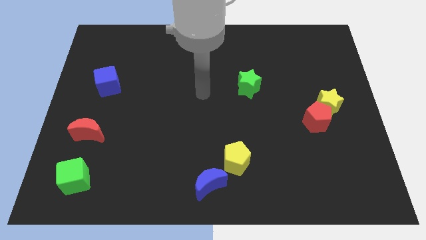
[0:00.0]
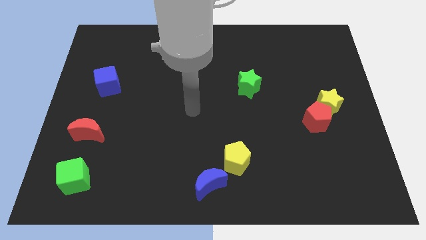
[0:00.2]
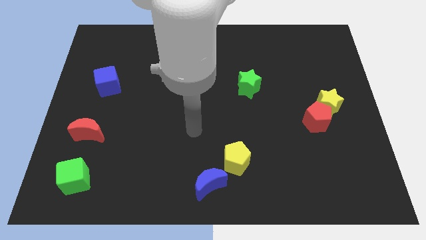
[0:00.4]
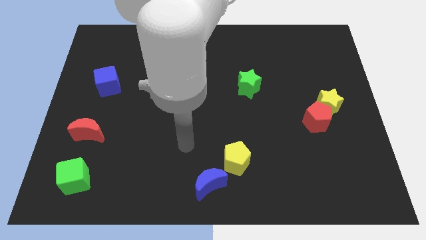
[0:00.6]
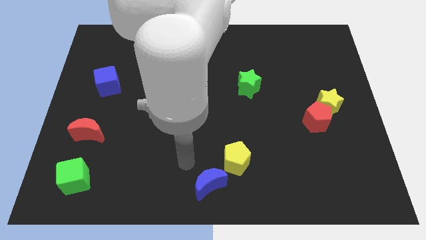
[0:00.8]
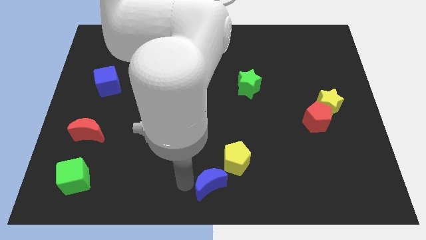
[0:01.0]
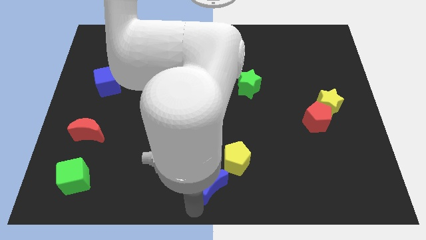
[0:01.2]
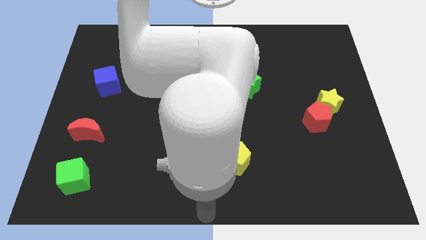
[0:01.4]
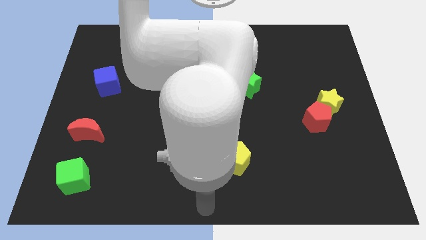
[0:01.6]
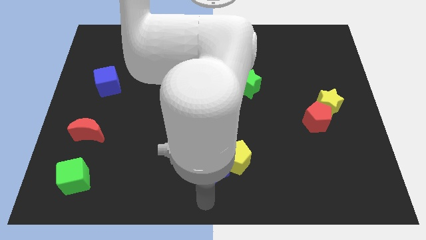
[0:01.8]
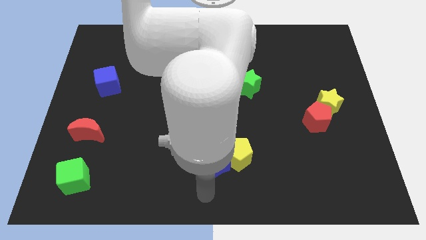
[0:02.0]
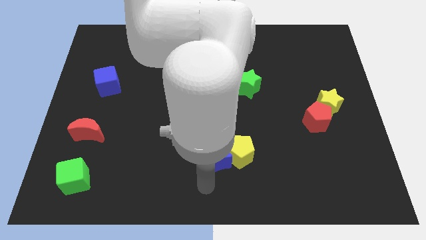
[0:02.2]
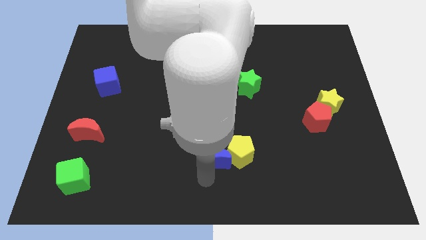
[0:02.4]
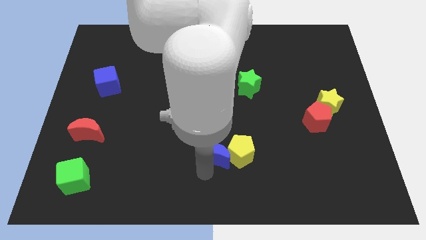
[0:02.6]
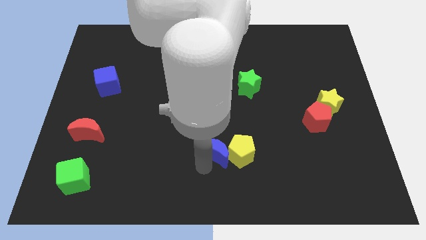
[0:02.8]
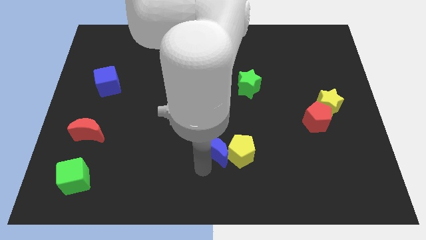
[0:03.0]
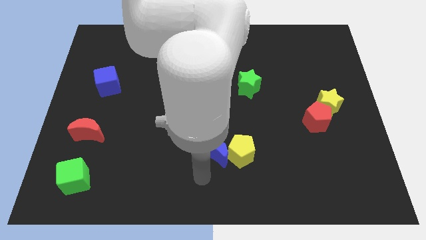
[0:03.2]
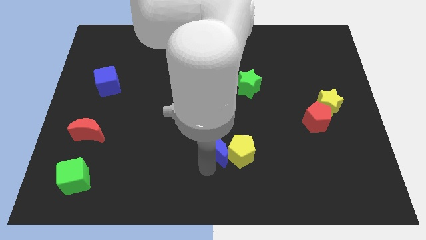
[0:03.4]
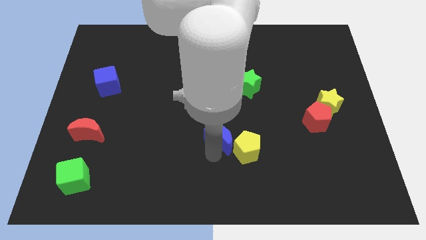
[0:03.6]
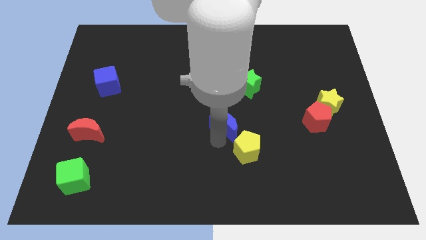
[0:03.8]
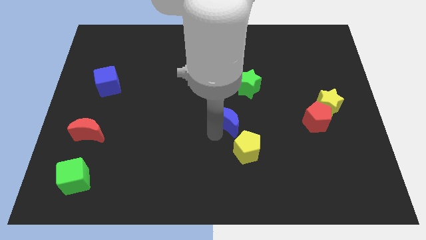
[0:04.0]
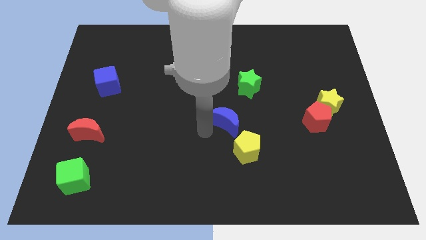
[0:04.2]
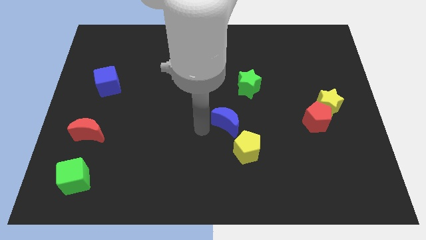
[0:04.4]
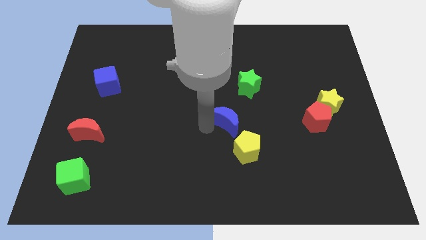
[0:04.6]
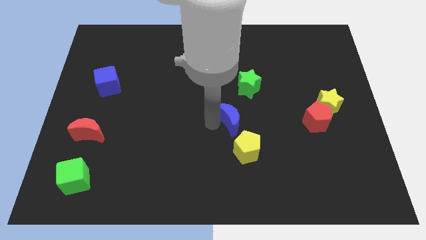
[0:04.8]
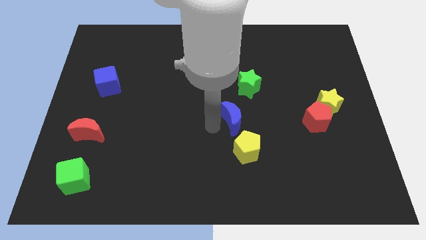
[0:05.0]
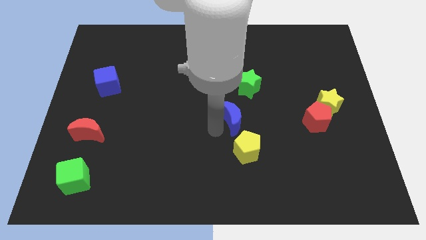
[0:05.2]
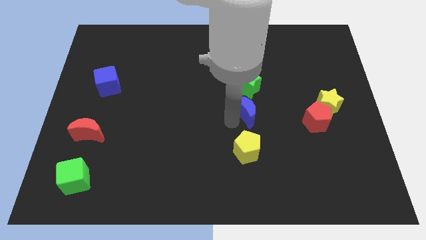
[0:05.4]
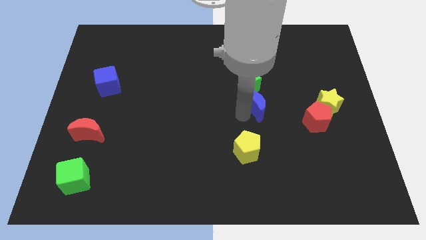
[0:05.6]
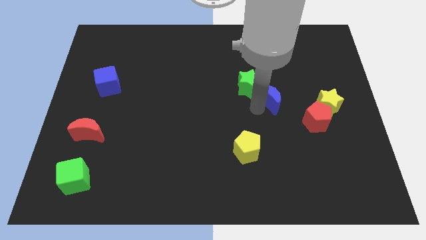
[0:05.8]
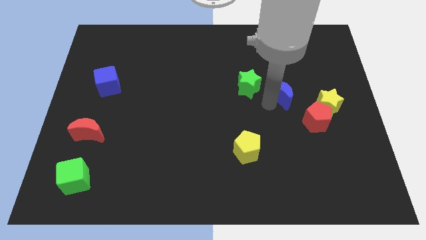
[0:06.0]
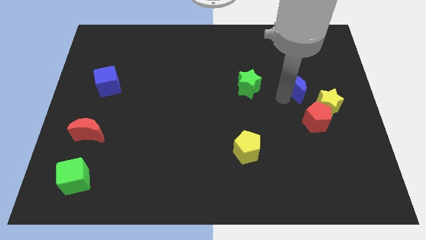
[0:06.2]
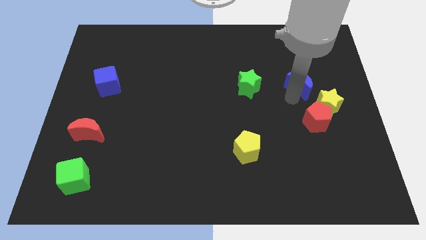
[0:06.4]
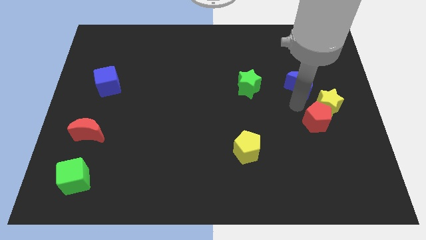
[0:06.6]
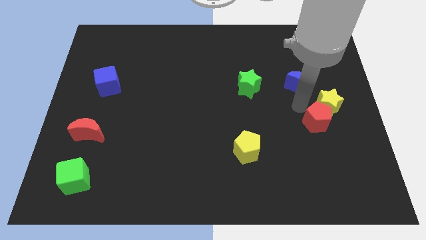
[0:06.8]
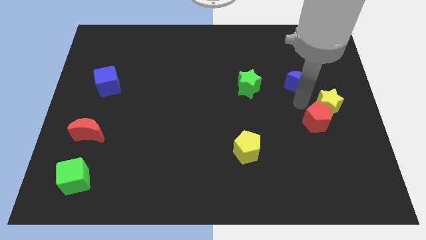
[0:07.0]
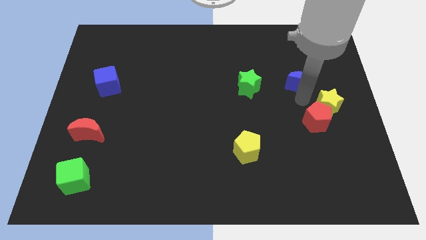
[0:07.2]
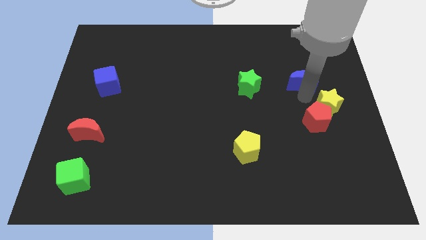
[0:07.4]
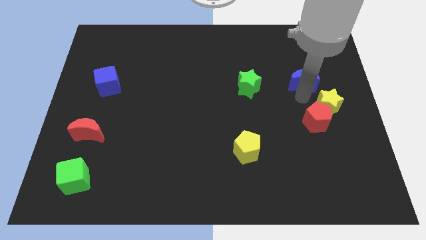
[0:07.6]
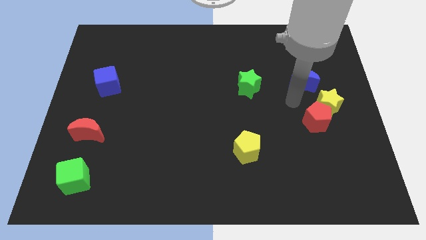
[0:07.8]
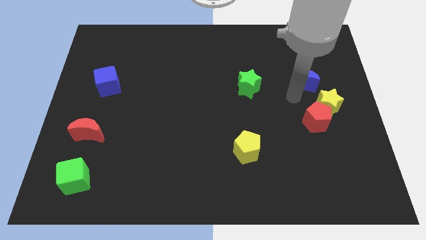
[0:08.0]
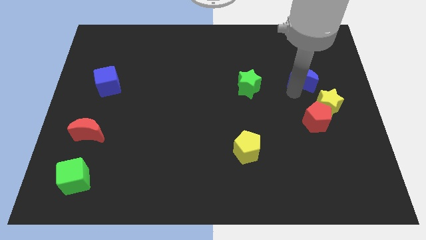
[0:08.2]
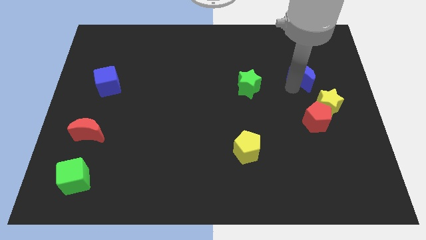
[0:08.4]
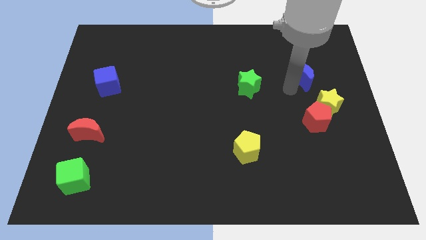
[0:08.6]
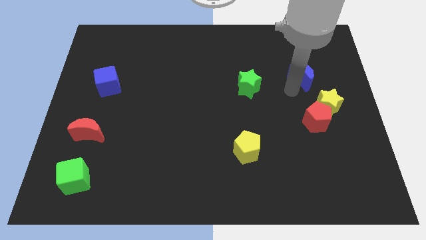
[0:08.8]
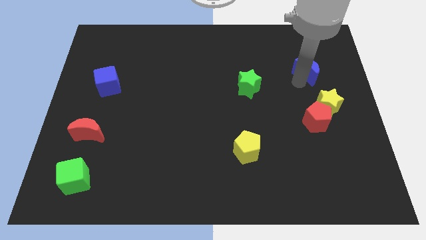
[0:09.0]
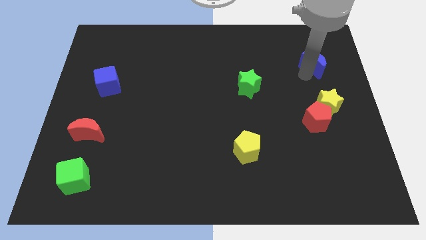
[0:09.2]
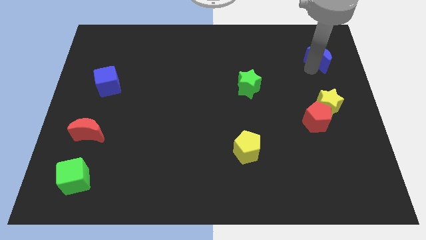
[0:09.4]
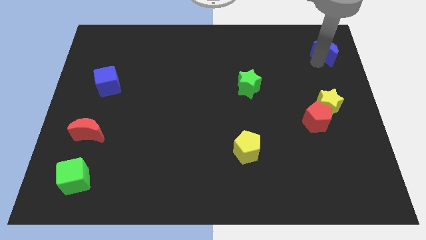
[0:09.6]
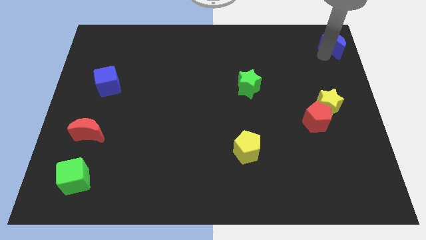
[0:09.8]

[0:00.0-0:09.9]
push the blue moon to the top right corner

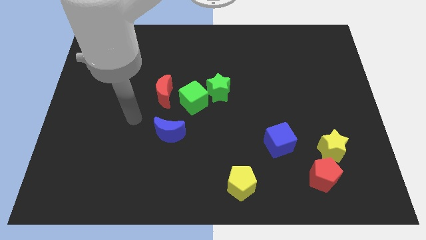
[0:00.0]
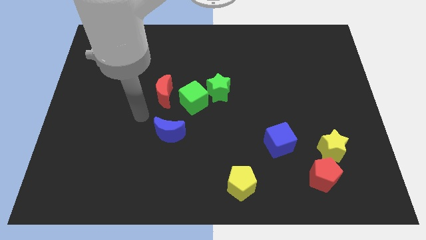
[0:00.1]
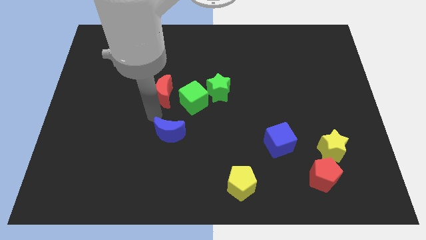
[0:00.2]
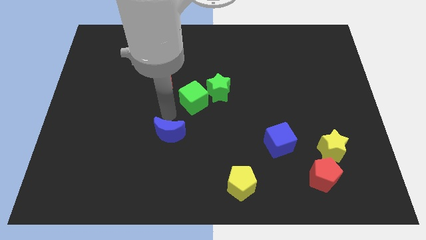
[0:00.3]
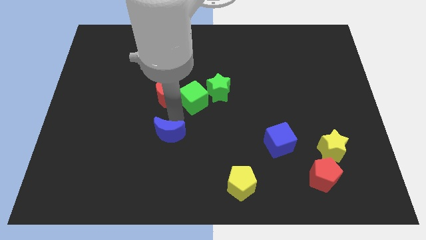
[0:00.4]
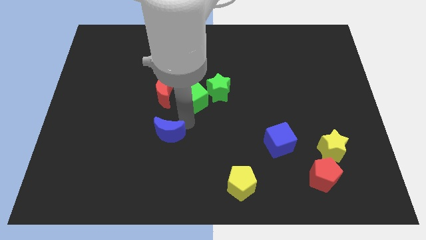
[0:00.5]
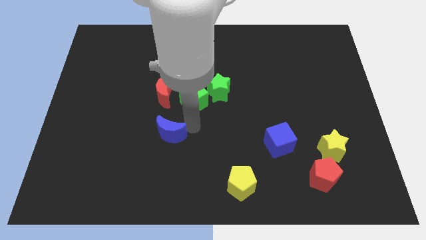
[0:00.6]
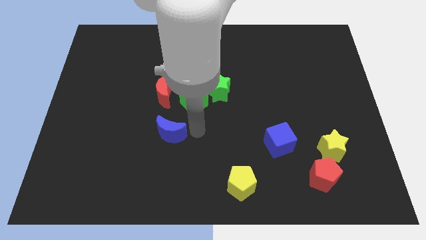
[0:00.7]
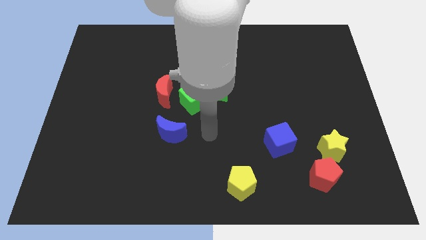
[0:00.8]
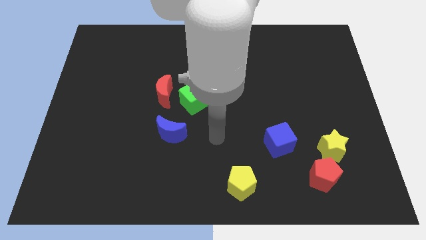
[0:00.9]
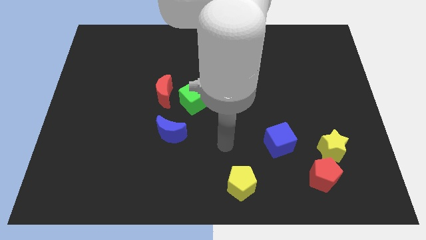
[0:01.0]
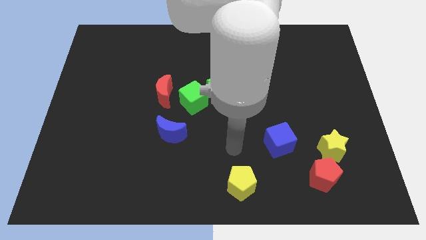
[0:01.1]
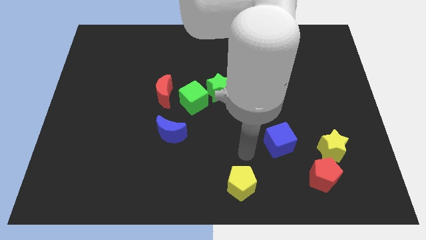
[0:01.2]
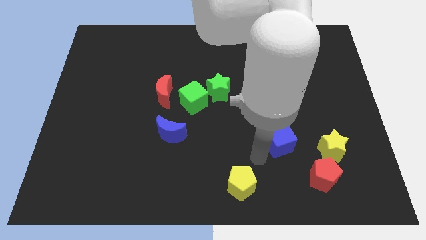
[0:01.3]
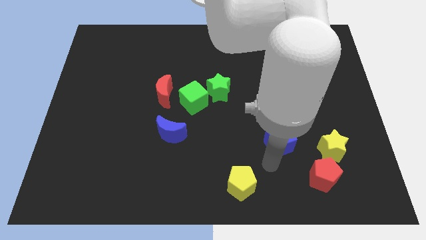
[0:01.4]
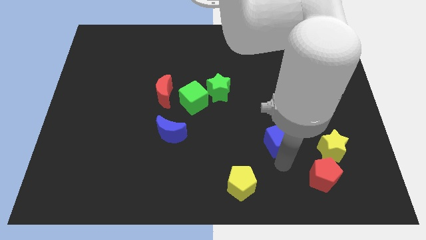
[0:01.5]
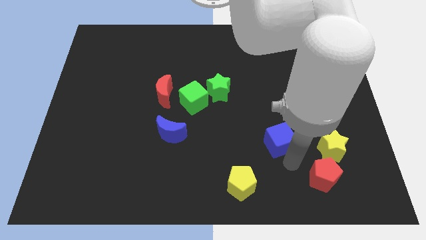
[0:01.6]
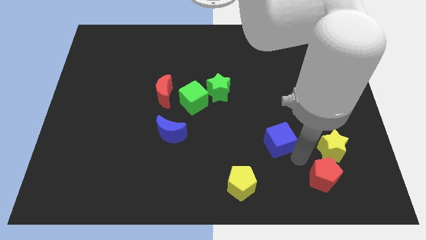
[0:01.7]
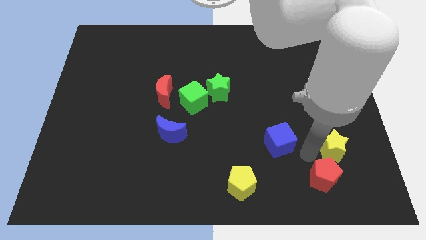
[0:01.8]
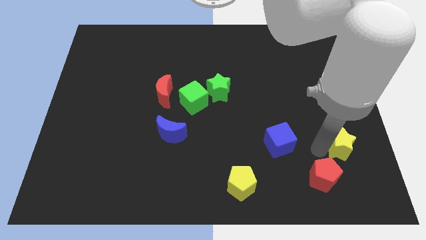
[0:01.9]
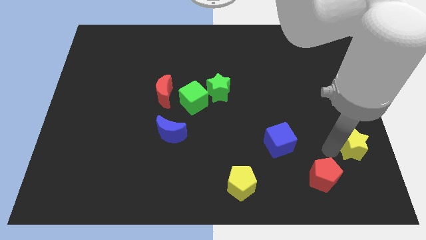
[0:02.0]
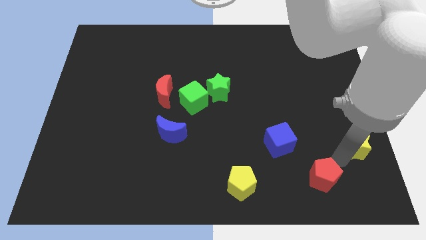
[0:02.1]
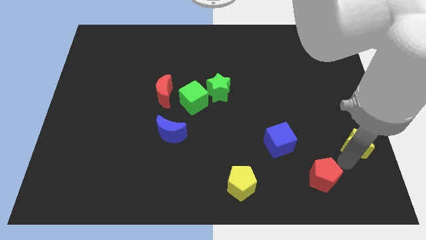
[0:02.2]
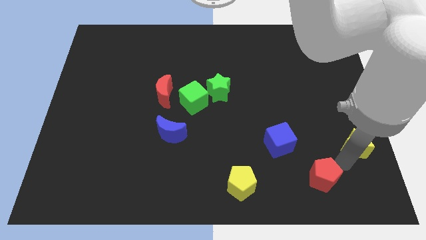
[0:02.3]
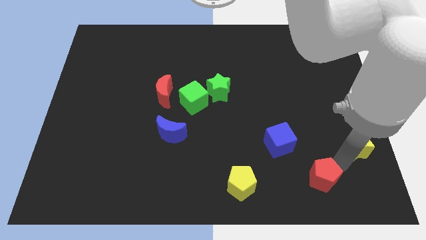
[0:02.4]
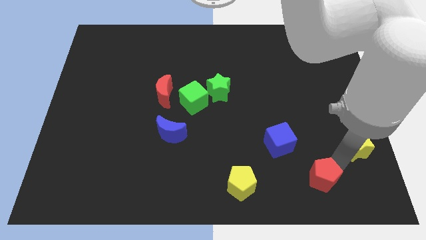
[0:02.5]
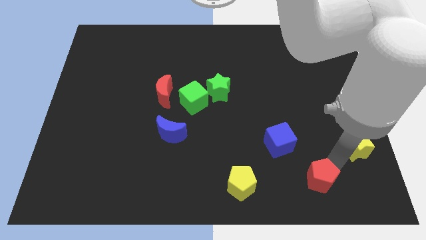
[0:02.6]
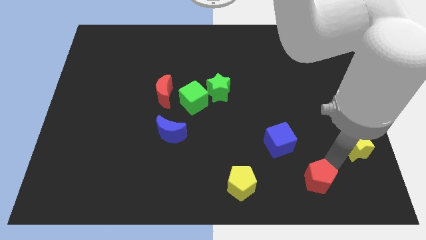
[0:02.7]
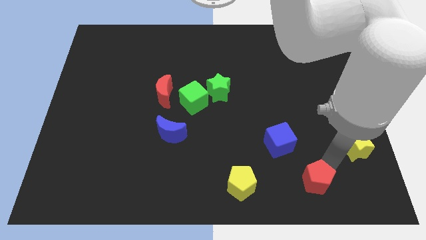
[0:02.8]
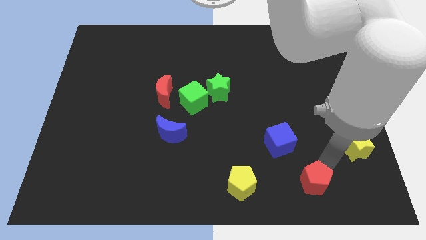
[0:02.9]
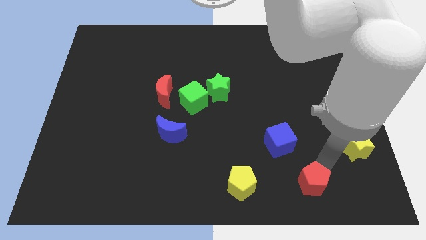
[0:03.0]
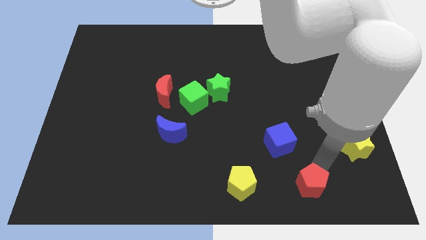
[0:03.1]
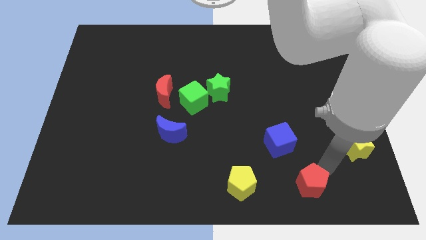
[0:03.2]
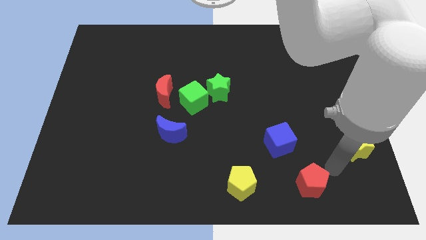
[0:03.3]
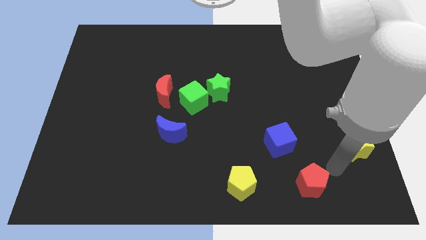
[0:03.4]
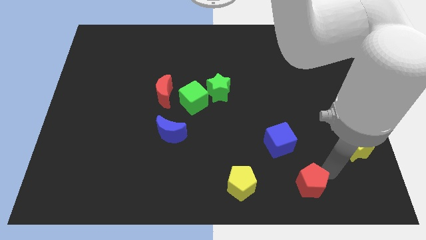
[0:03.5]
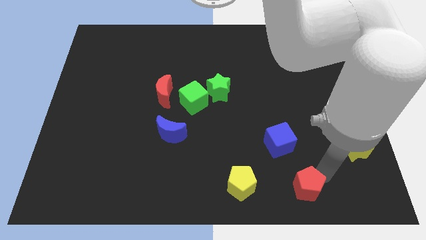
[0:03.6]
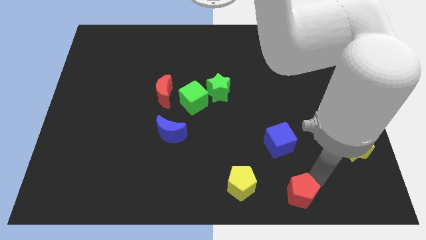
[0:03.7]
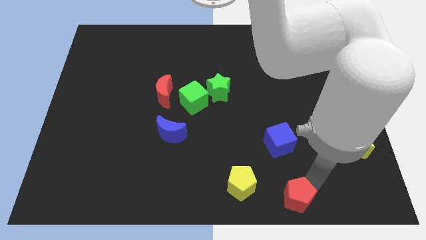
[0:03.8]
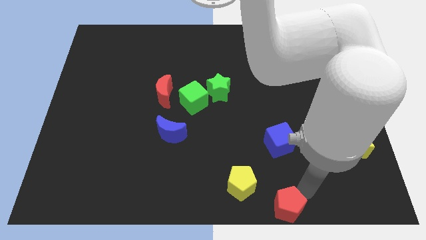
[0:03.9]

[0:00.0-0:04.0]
move the red pentagon to the bottom
